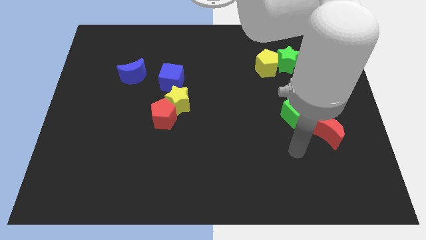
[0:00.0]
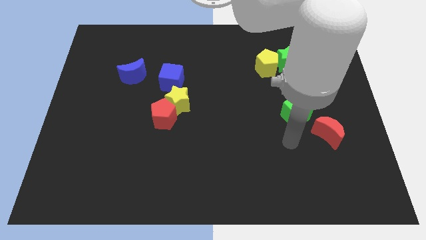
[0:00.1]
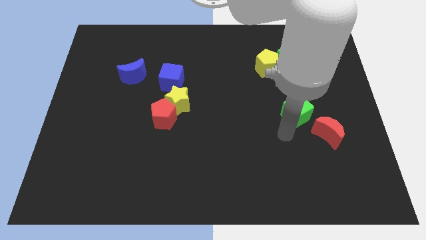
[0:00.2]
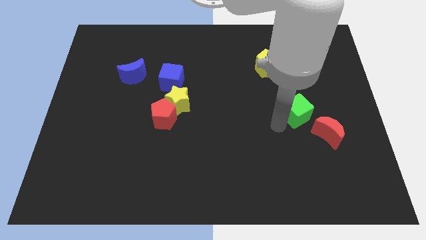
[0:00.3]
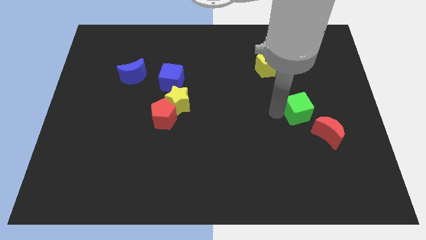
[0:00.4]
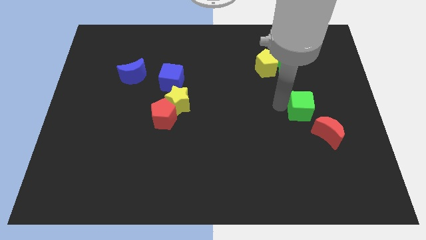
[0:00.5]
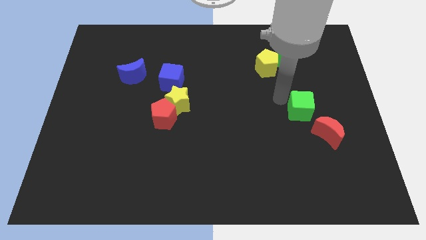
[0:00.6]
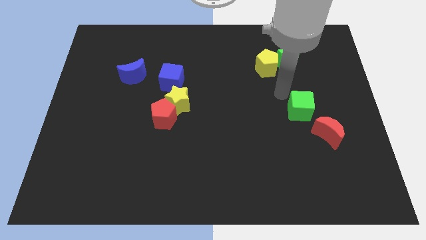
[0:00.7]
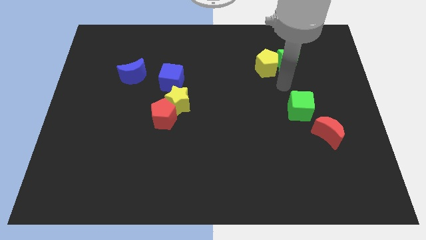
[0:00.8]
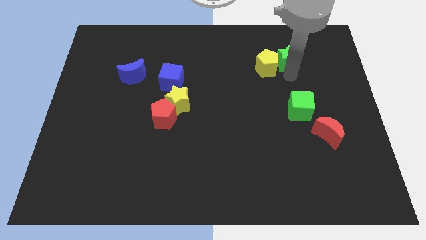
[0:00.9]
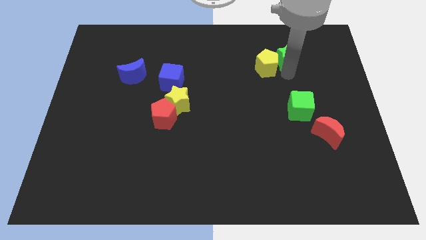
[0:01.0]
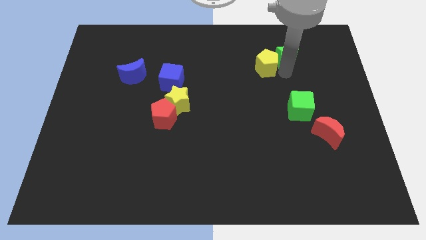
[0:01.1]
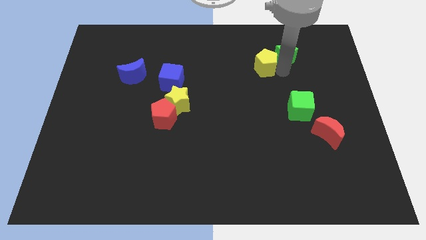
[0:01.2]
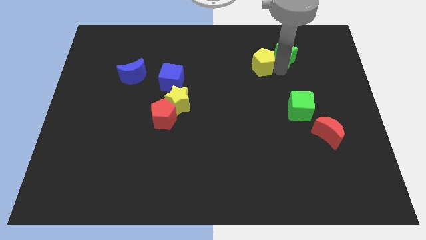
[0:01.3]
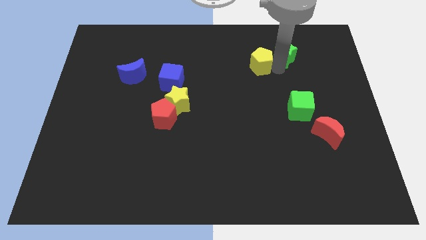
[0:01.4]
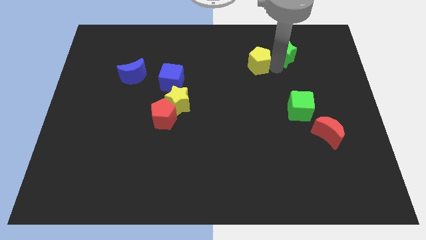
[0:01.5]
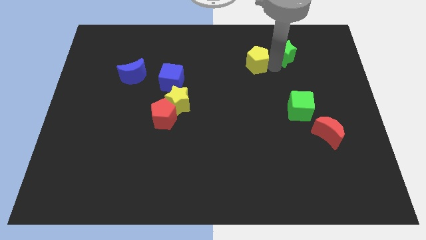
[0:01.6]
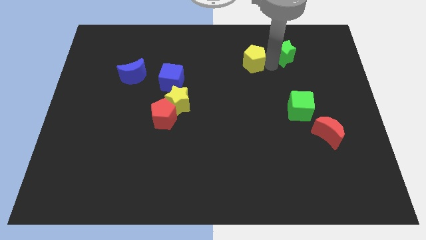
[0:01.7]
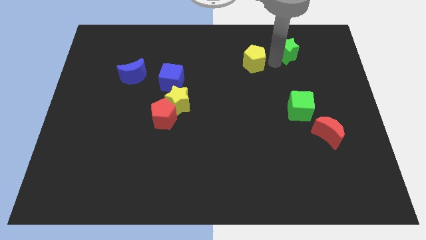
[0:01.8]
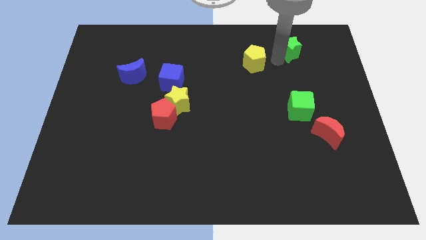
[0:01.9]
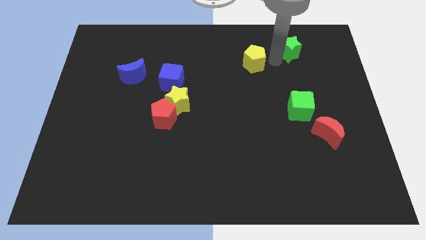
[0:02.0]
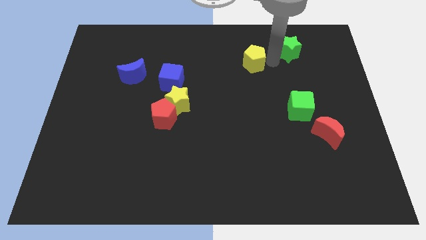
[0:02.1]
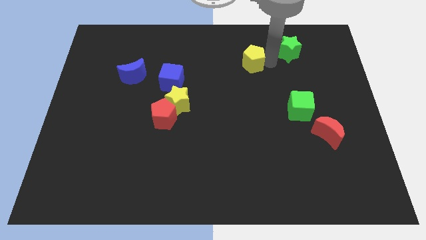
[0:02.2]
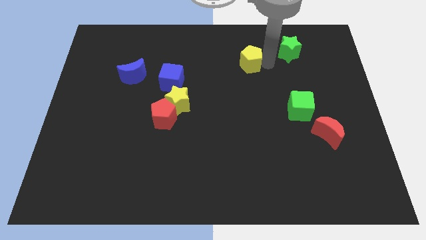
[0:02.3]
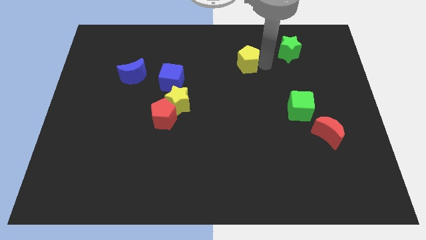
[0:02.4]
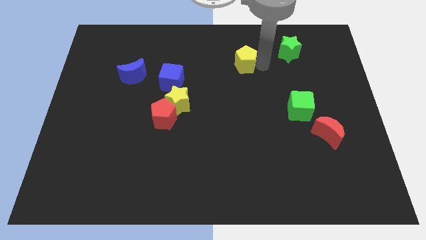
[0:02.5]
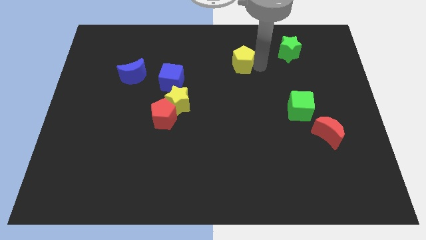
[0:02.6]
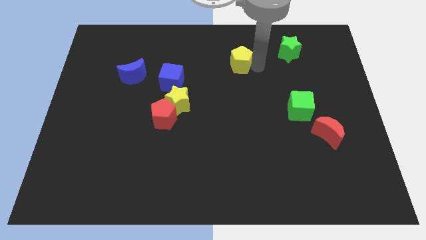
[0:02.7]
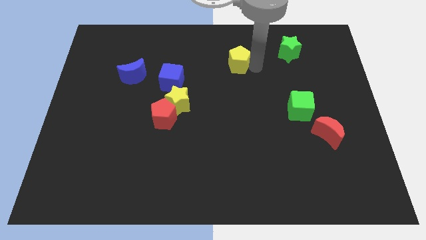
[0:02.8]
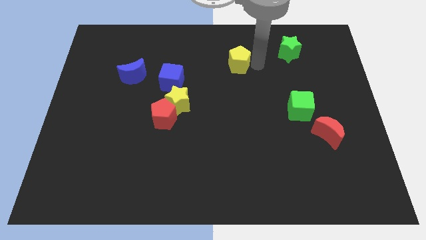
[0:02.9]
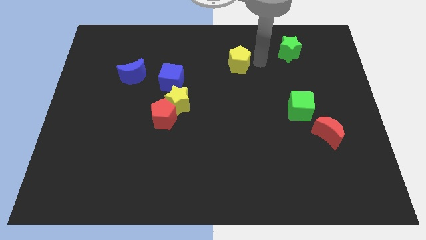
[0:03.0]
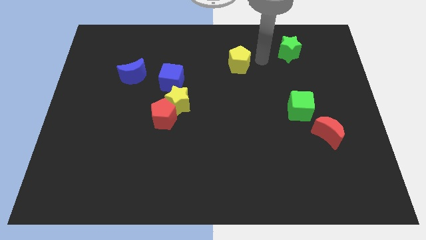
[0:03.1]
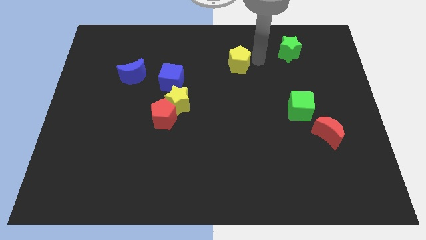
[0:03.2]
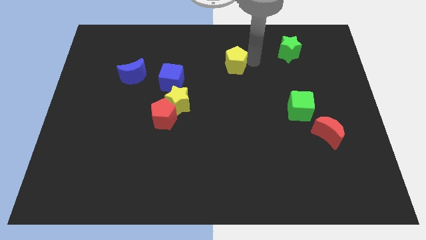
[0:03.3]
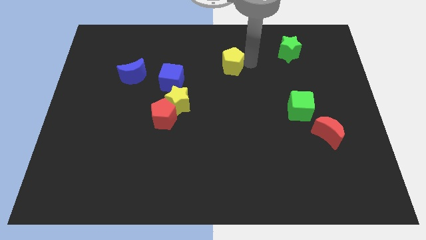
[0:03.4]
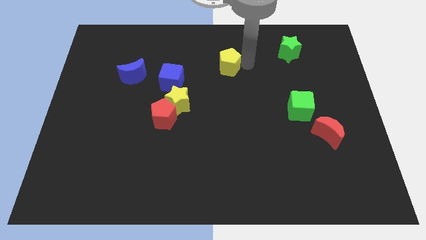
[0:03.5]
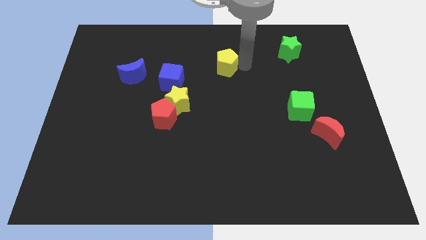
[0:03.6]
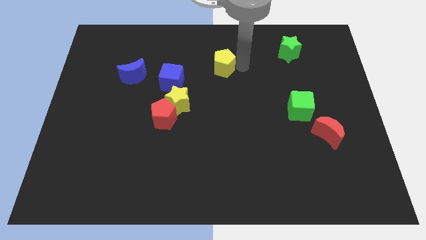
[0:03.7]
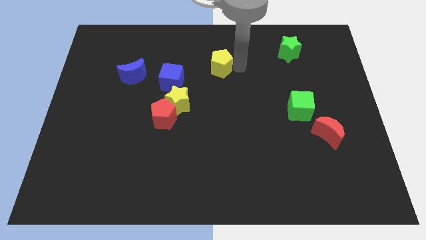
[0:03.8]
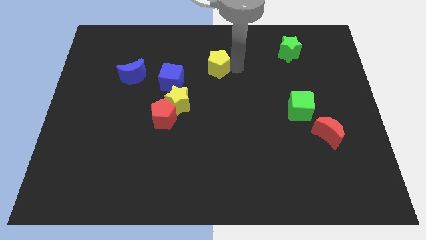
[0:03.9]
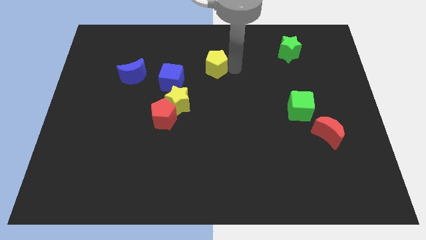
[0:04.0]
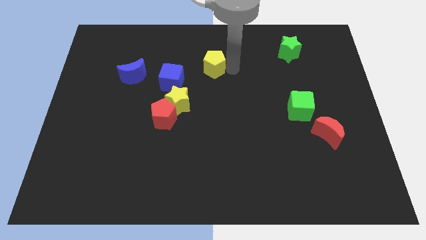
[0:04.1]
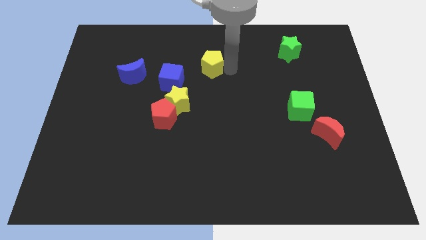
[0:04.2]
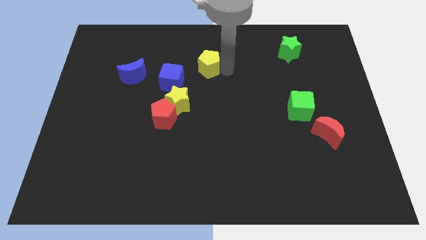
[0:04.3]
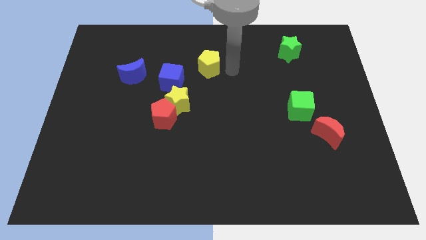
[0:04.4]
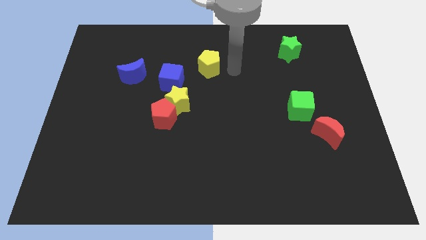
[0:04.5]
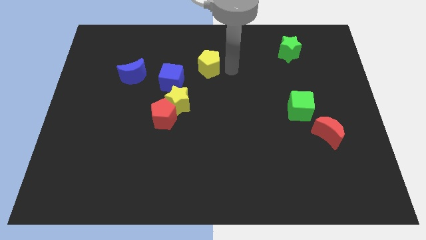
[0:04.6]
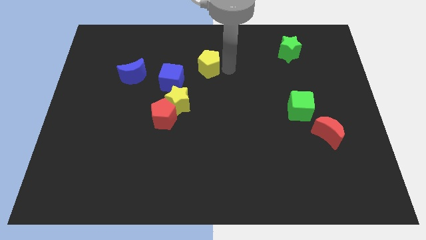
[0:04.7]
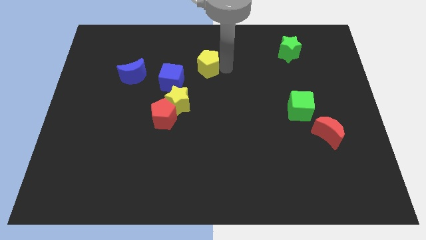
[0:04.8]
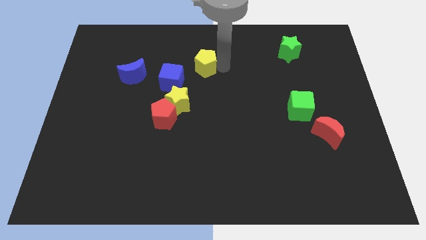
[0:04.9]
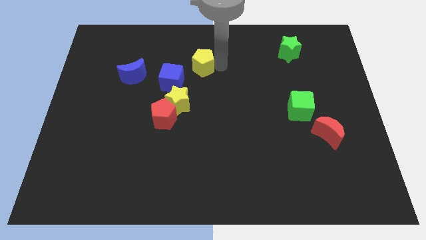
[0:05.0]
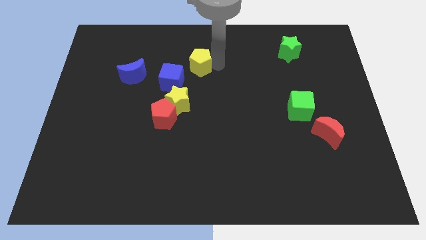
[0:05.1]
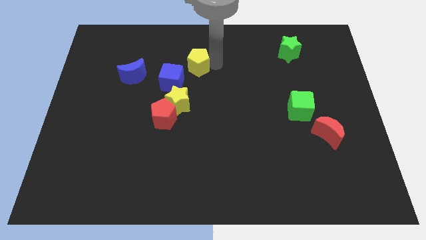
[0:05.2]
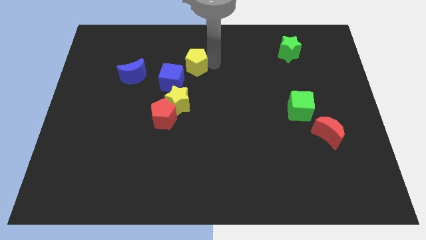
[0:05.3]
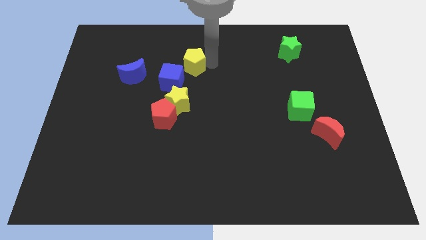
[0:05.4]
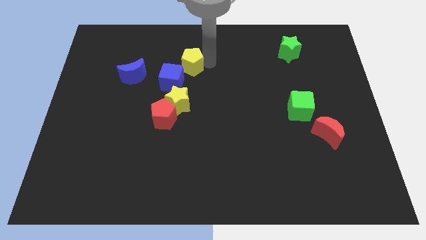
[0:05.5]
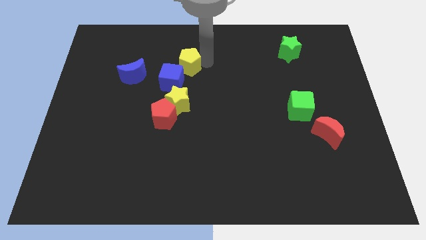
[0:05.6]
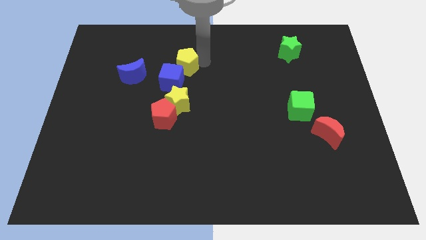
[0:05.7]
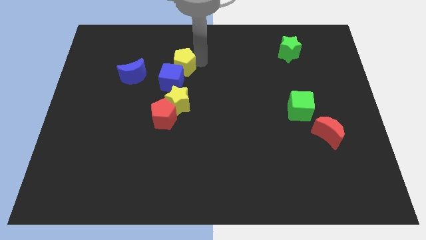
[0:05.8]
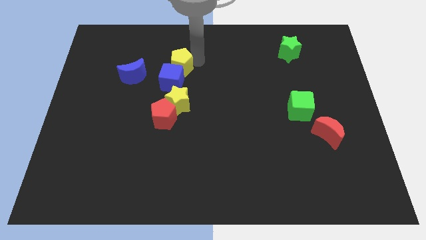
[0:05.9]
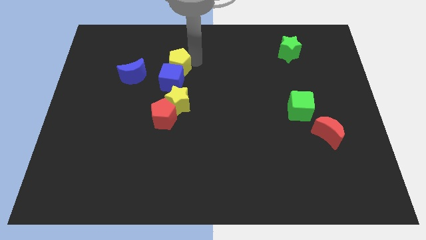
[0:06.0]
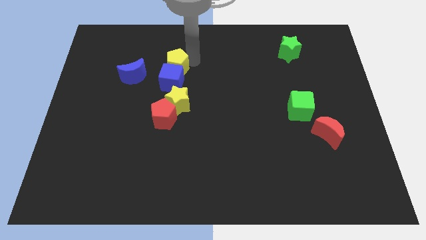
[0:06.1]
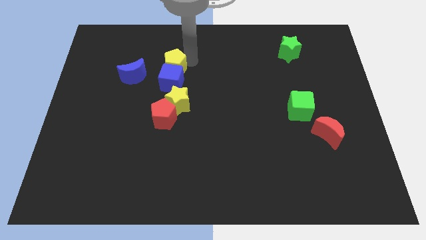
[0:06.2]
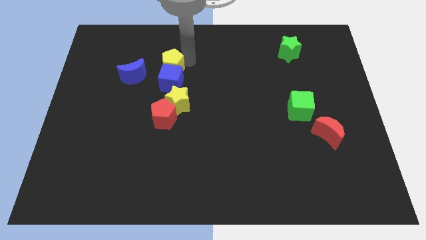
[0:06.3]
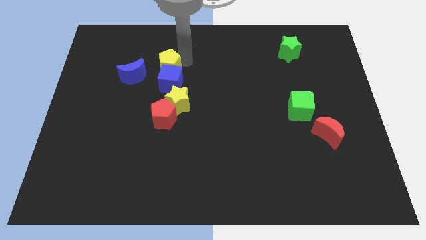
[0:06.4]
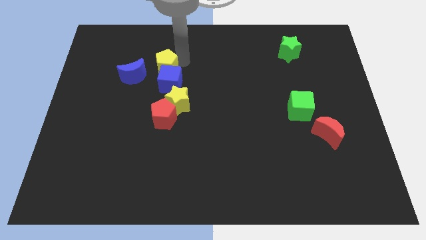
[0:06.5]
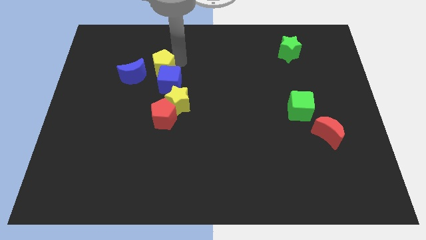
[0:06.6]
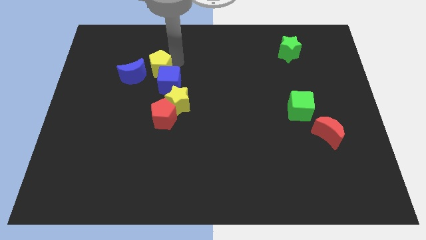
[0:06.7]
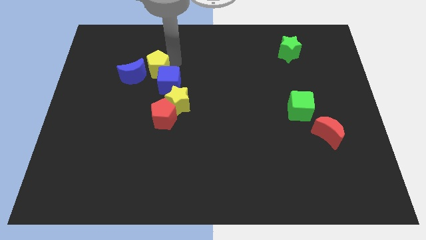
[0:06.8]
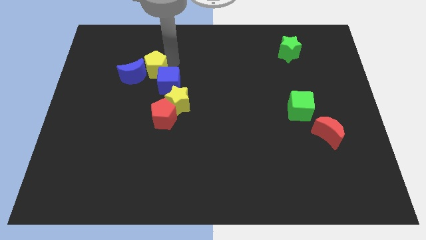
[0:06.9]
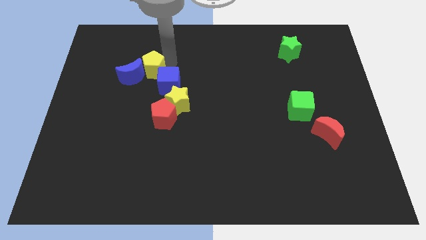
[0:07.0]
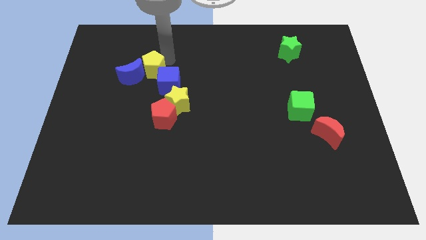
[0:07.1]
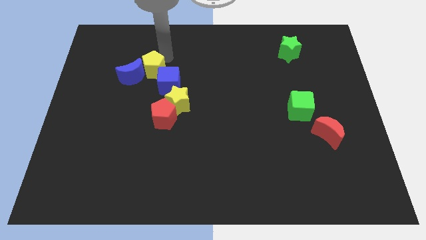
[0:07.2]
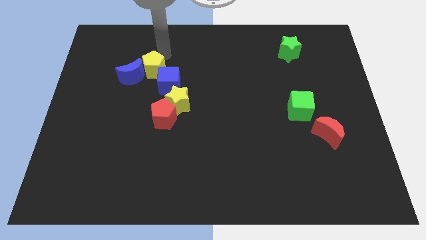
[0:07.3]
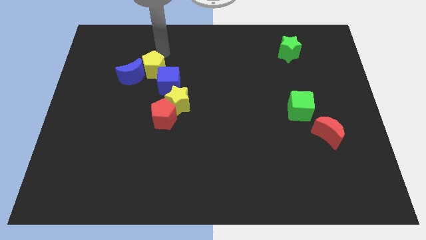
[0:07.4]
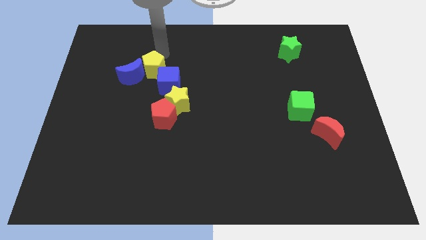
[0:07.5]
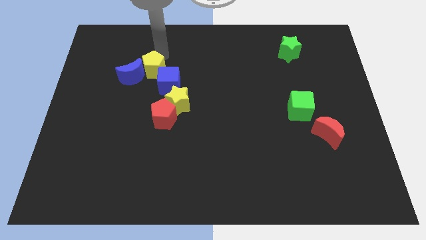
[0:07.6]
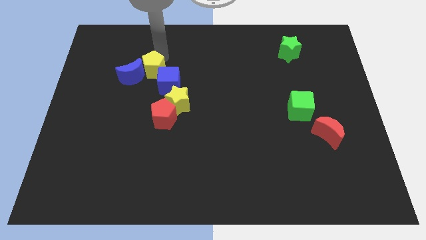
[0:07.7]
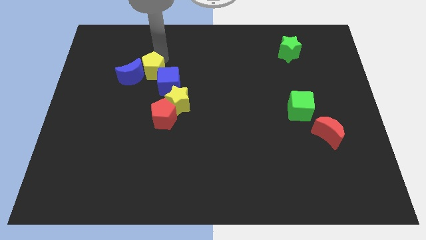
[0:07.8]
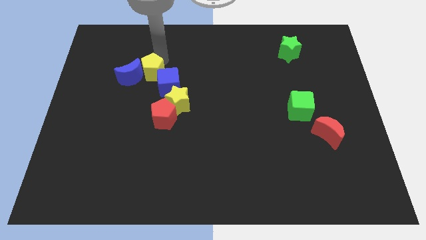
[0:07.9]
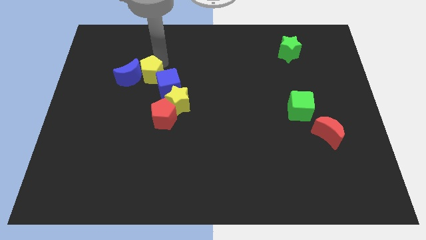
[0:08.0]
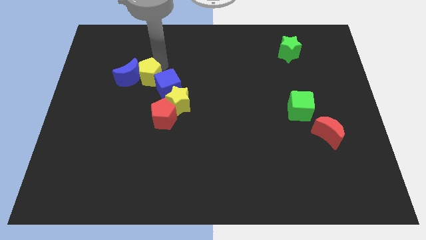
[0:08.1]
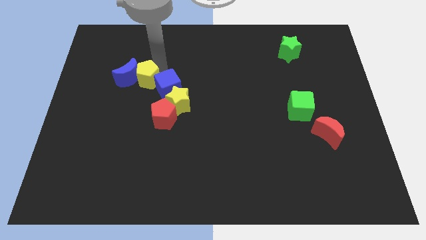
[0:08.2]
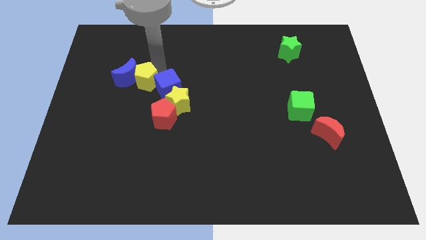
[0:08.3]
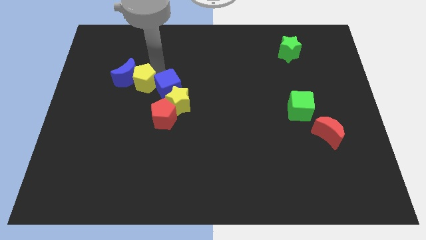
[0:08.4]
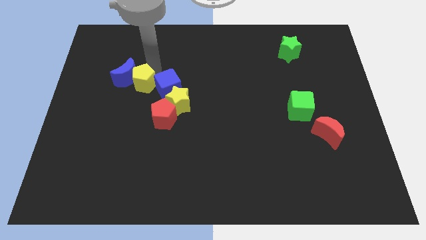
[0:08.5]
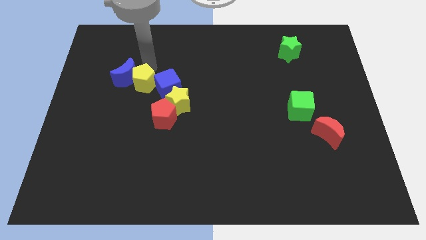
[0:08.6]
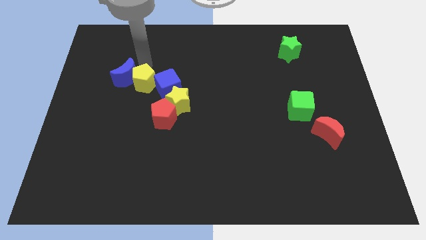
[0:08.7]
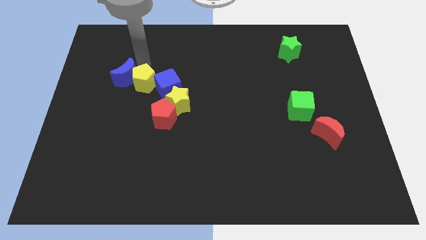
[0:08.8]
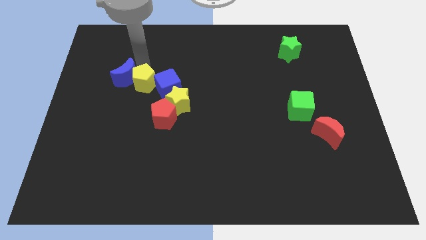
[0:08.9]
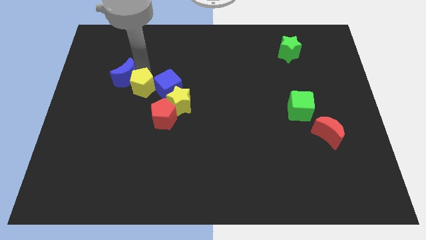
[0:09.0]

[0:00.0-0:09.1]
push the yellow pentagon to the top left of the red pentagon
